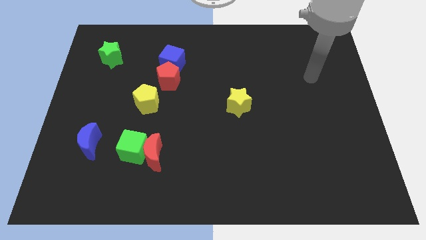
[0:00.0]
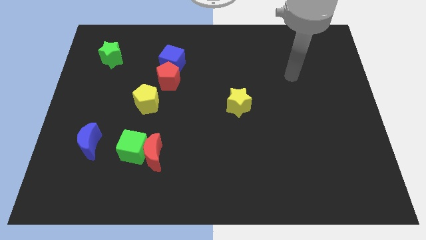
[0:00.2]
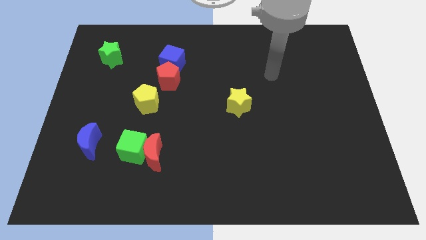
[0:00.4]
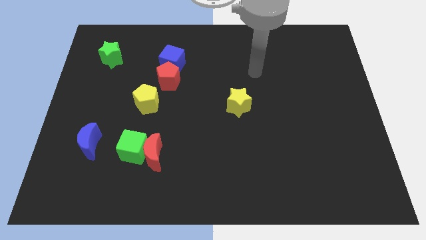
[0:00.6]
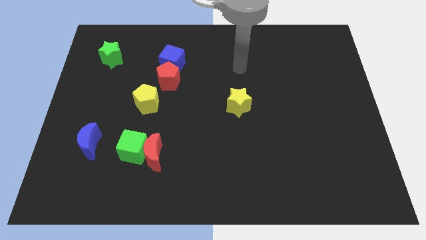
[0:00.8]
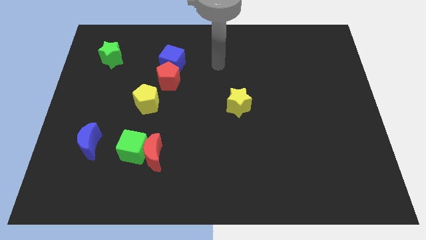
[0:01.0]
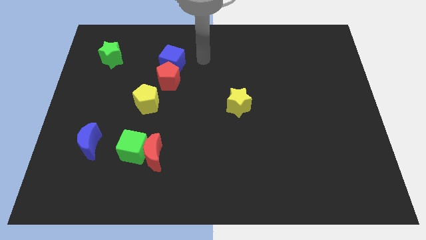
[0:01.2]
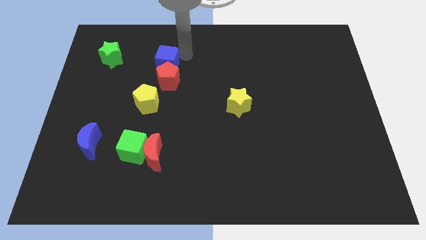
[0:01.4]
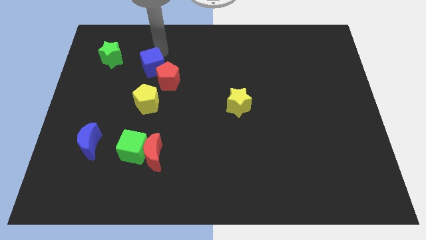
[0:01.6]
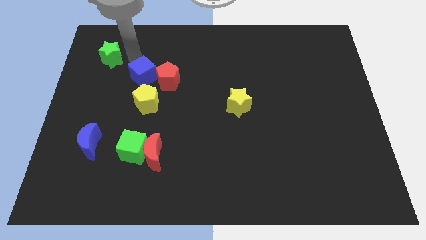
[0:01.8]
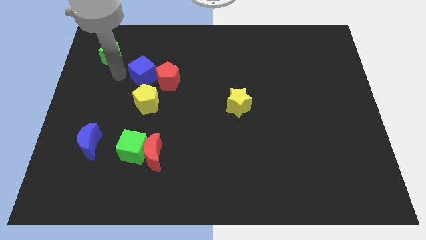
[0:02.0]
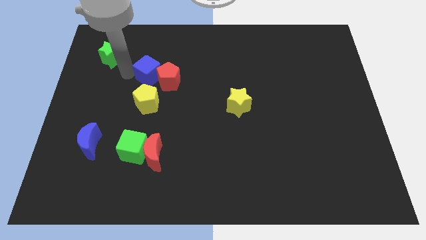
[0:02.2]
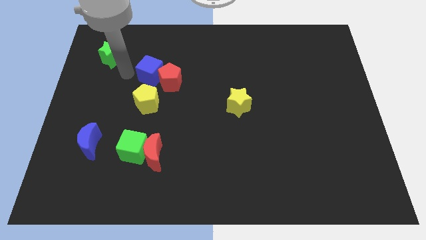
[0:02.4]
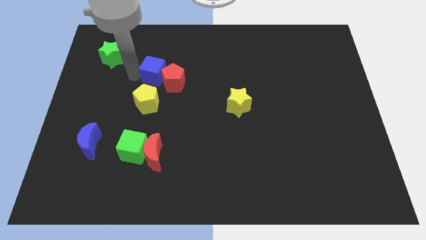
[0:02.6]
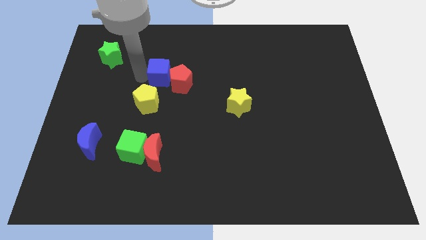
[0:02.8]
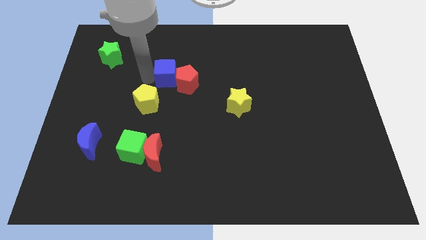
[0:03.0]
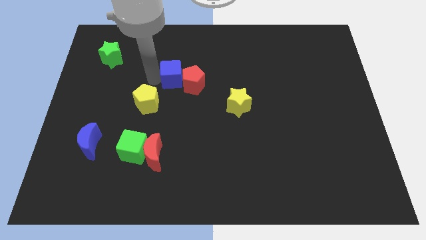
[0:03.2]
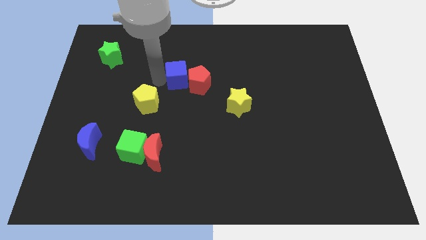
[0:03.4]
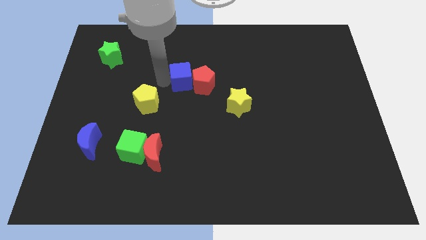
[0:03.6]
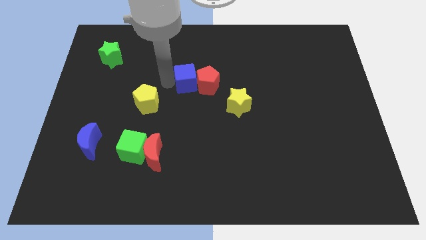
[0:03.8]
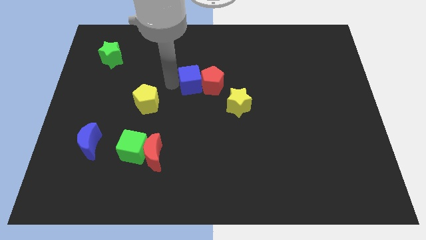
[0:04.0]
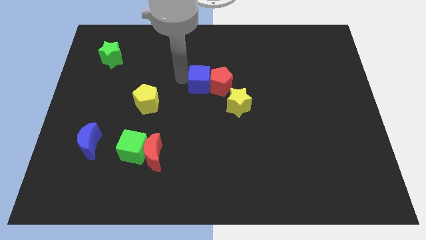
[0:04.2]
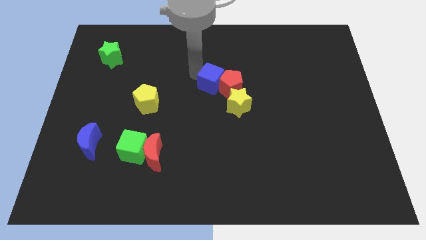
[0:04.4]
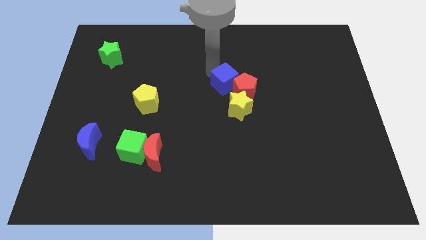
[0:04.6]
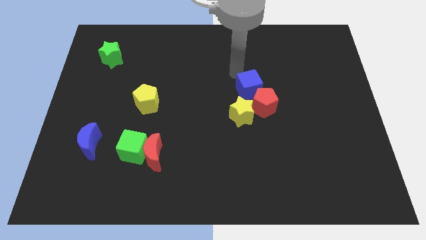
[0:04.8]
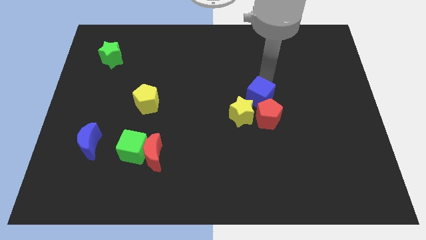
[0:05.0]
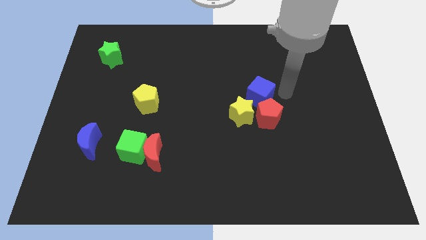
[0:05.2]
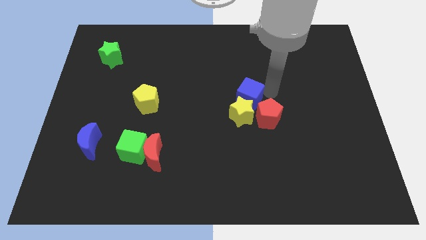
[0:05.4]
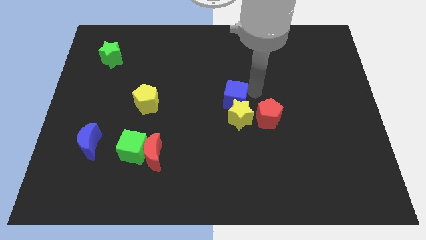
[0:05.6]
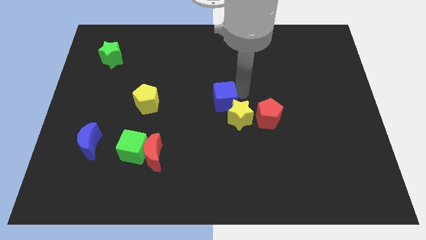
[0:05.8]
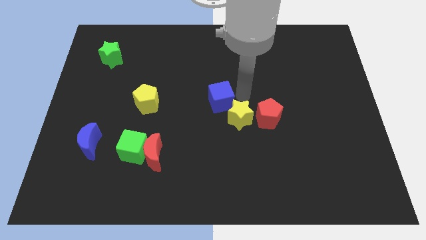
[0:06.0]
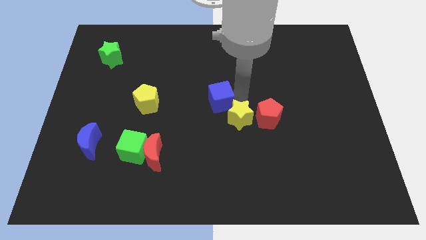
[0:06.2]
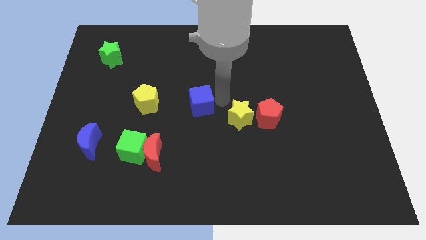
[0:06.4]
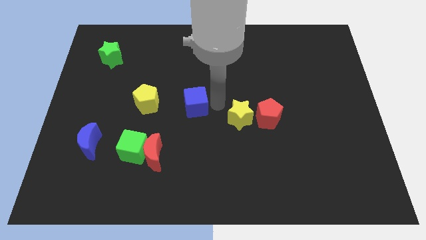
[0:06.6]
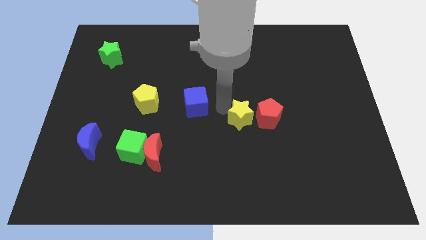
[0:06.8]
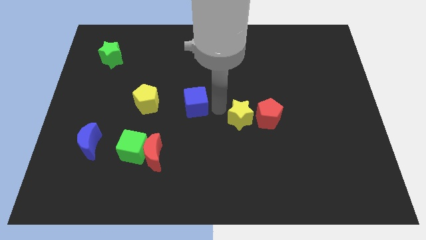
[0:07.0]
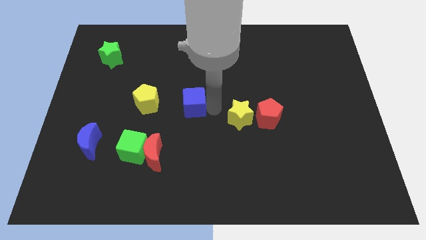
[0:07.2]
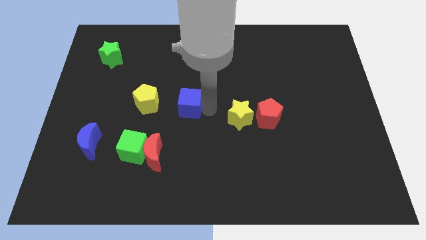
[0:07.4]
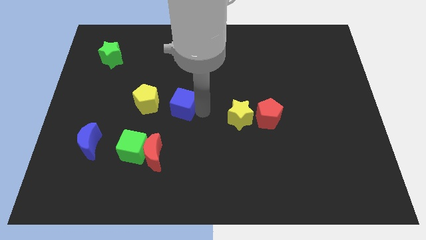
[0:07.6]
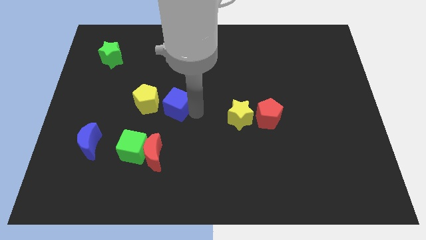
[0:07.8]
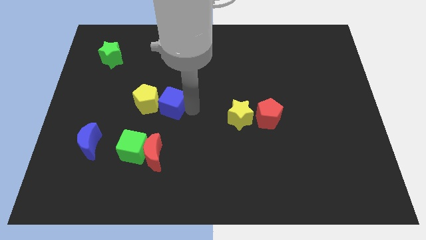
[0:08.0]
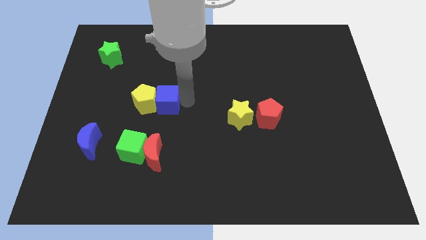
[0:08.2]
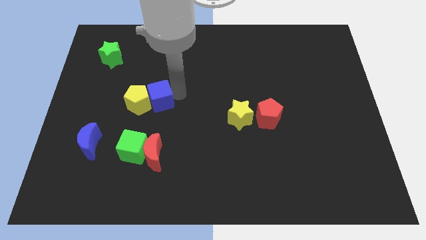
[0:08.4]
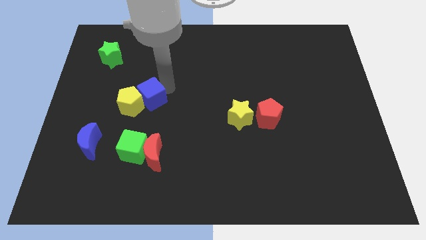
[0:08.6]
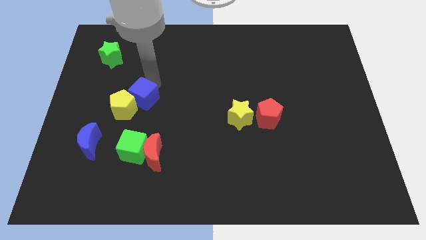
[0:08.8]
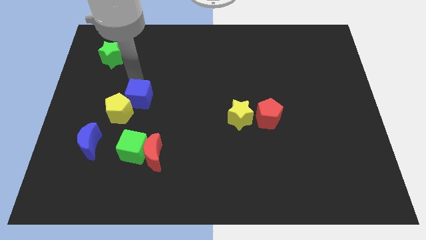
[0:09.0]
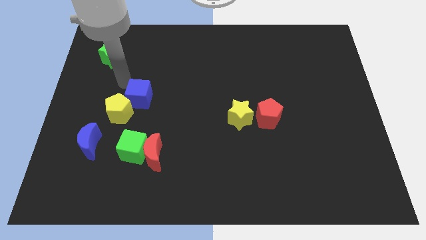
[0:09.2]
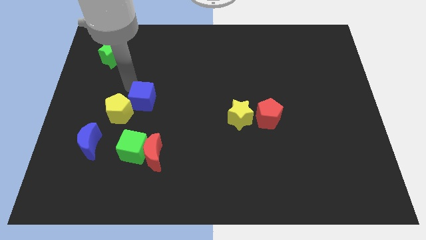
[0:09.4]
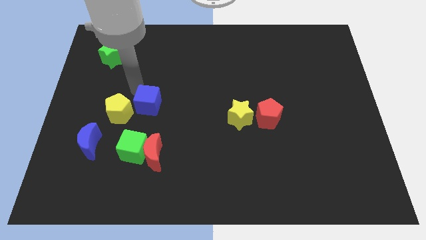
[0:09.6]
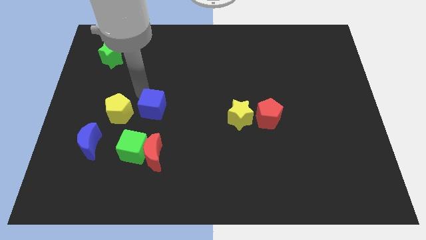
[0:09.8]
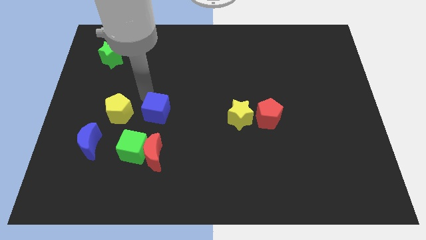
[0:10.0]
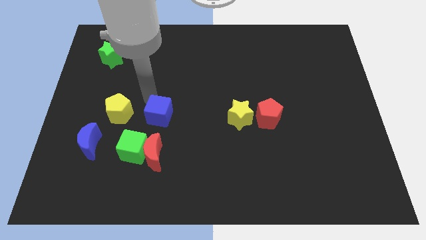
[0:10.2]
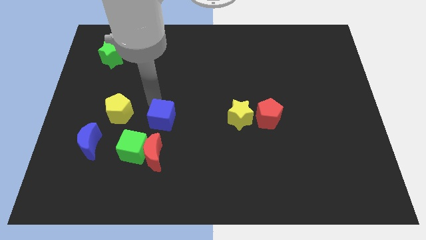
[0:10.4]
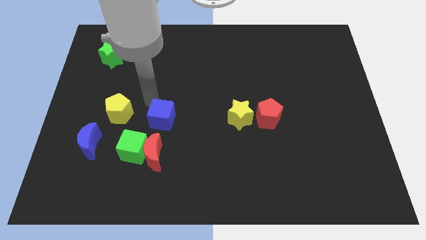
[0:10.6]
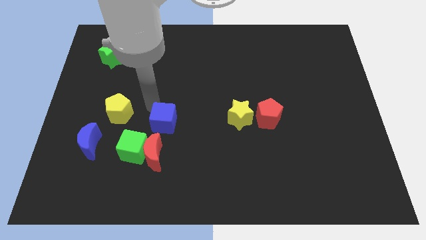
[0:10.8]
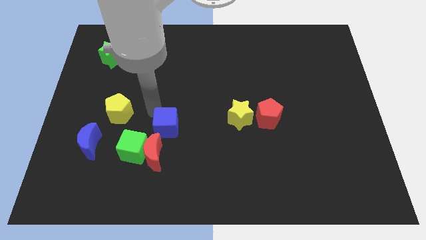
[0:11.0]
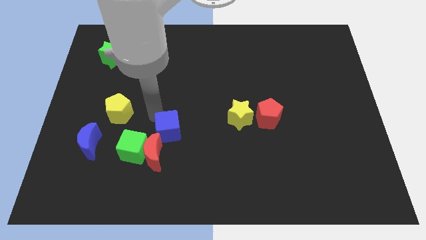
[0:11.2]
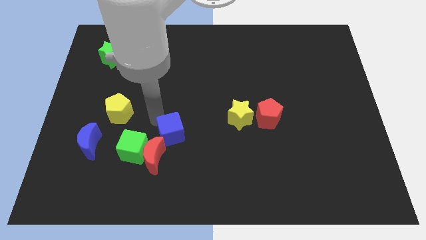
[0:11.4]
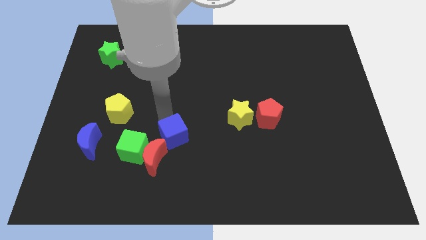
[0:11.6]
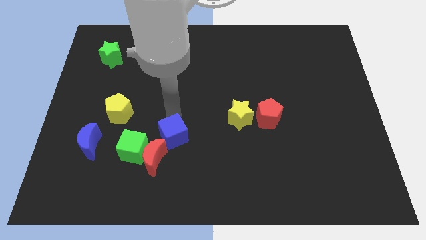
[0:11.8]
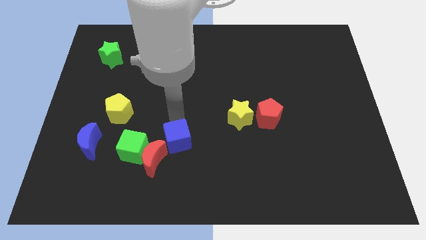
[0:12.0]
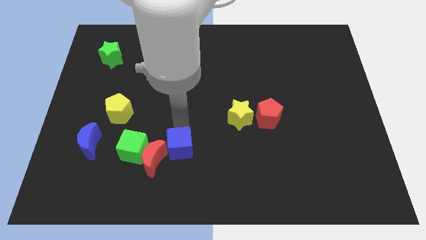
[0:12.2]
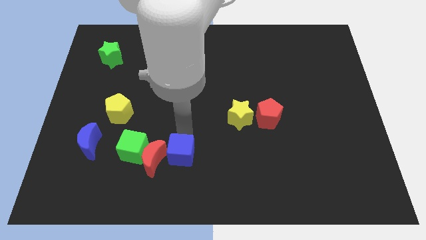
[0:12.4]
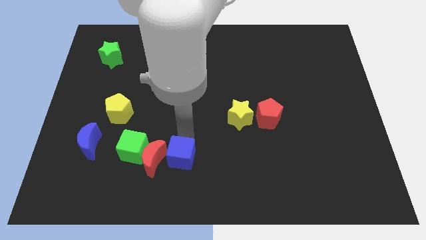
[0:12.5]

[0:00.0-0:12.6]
put the blue cube to the bottom right side of the red moon

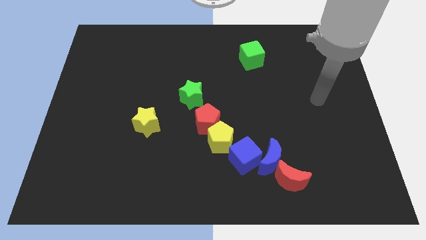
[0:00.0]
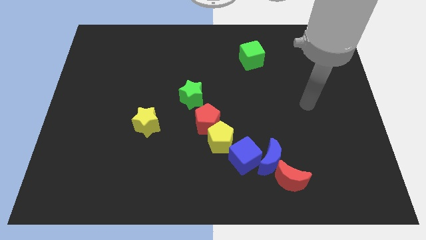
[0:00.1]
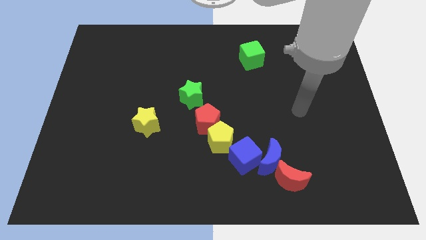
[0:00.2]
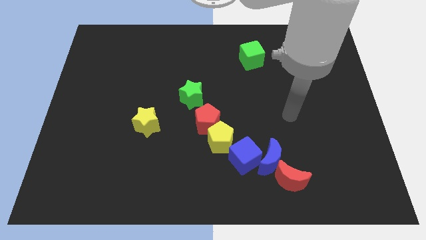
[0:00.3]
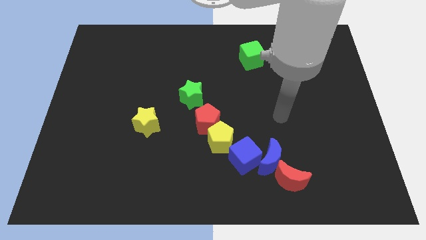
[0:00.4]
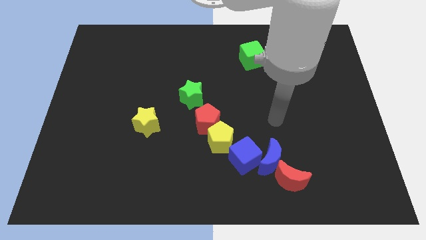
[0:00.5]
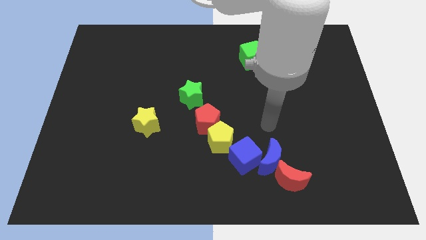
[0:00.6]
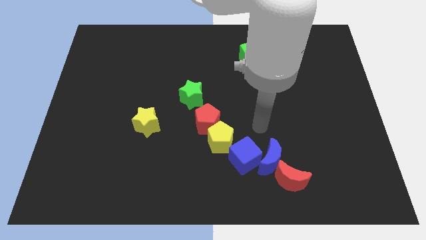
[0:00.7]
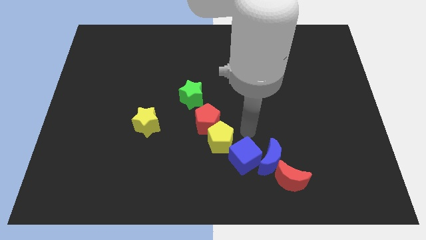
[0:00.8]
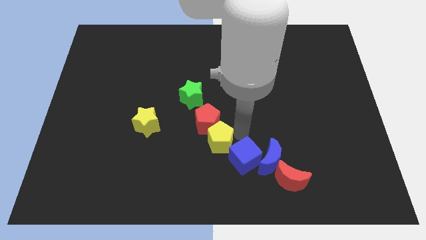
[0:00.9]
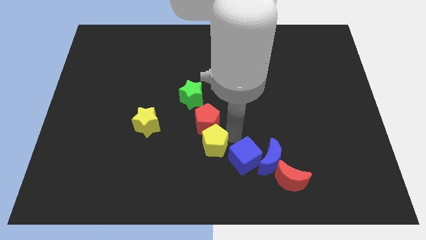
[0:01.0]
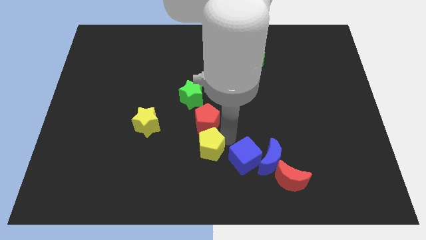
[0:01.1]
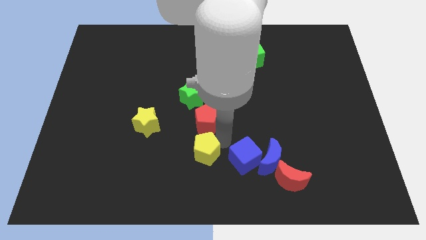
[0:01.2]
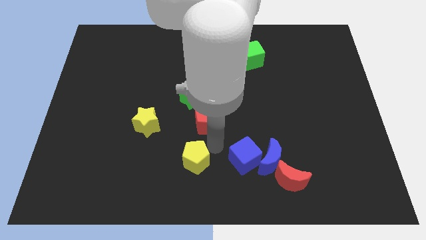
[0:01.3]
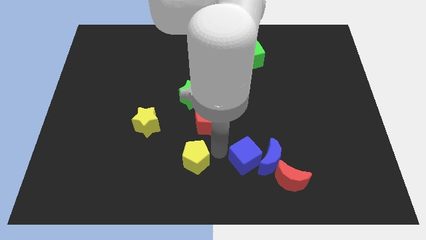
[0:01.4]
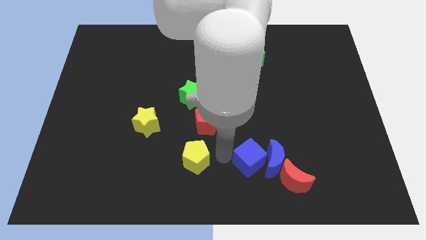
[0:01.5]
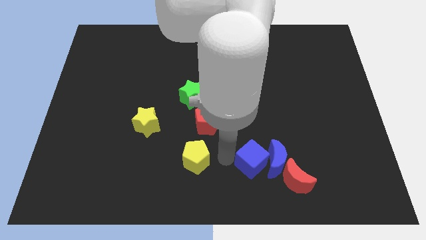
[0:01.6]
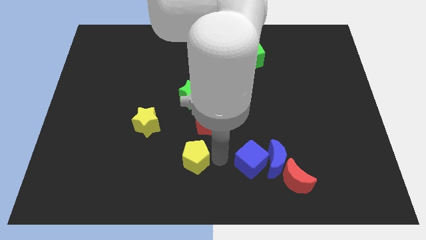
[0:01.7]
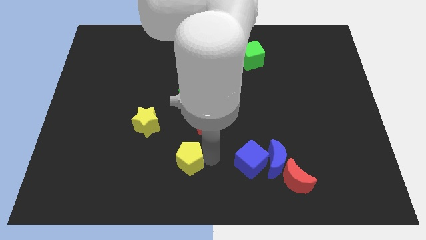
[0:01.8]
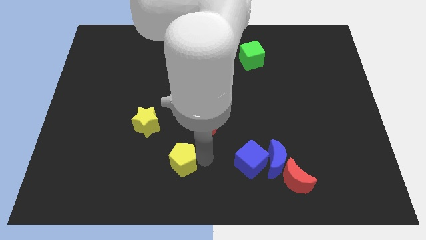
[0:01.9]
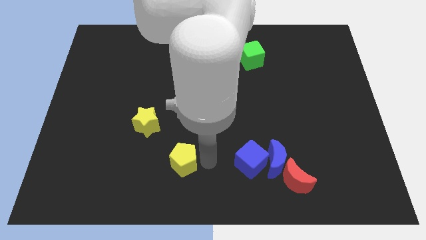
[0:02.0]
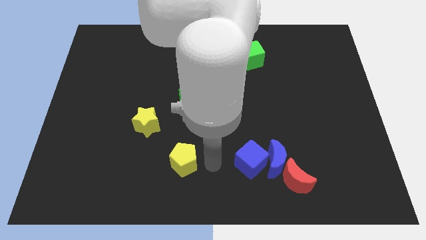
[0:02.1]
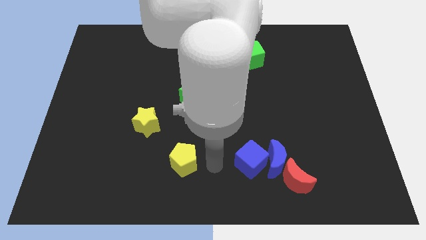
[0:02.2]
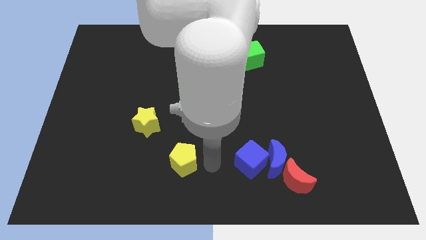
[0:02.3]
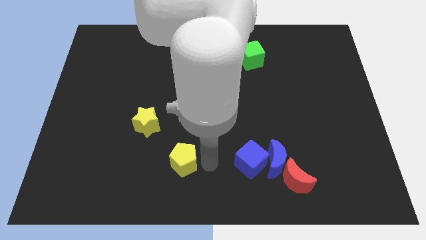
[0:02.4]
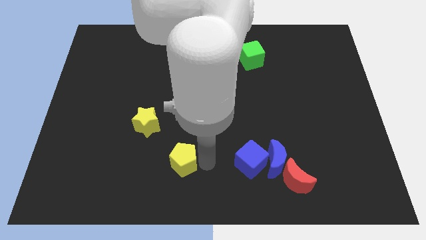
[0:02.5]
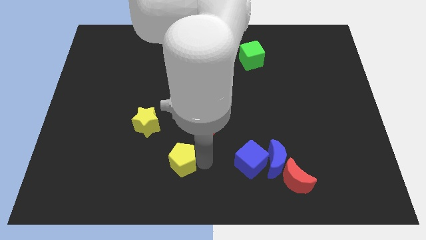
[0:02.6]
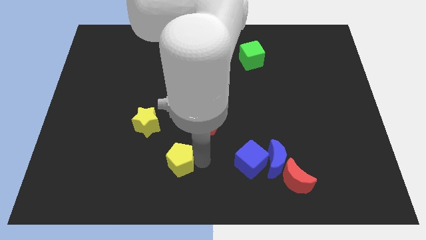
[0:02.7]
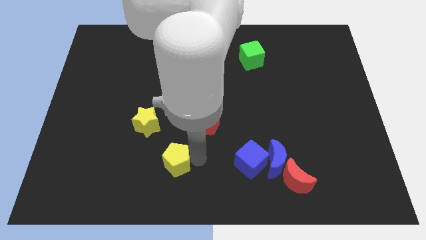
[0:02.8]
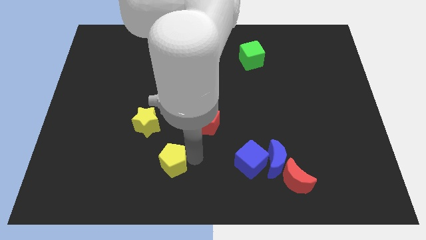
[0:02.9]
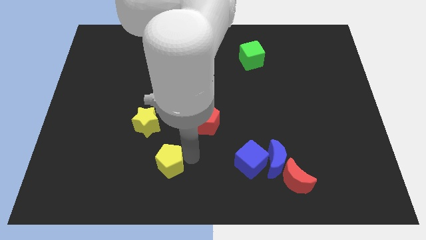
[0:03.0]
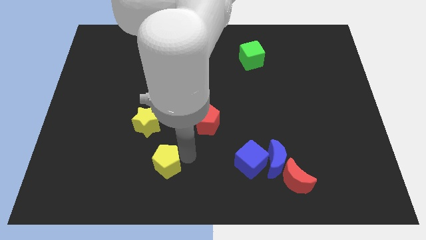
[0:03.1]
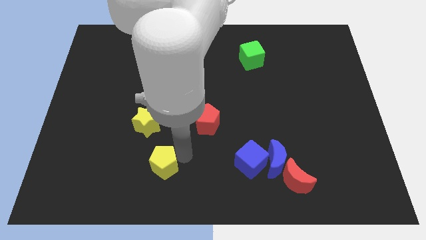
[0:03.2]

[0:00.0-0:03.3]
push the yellow pentagon to the bottom of the yellow star
